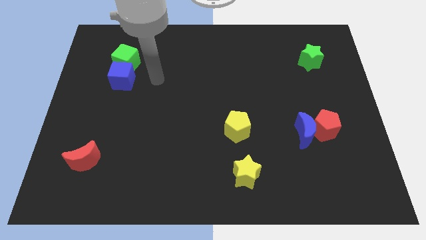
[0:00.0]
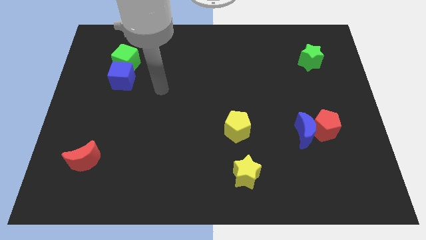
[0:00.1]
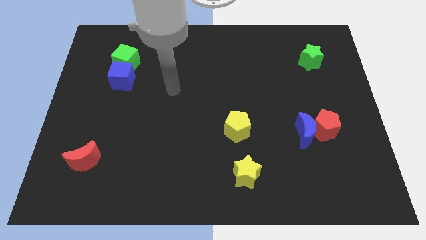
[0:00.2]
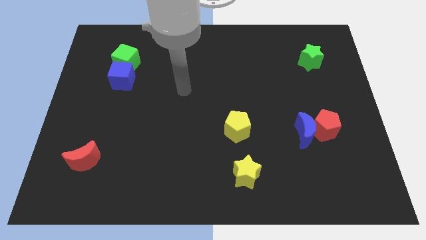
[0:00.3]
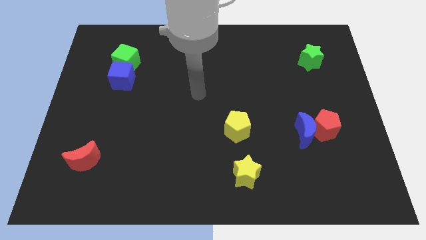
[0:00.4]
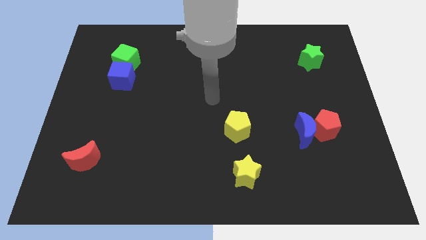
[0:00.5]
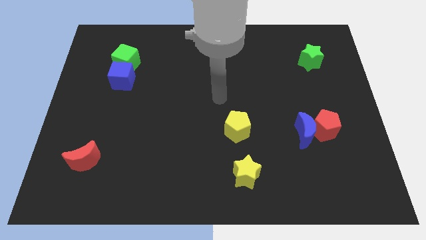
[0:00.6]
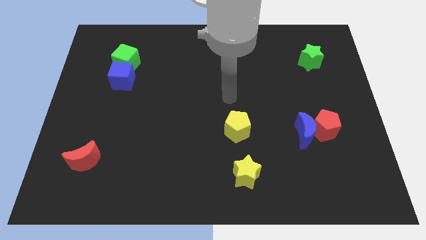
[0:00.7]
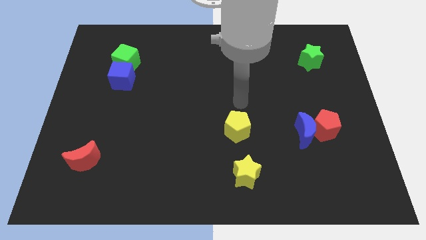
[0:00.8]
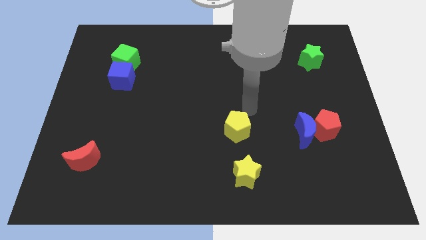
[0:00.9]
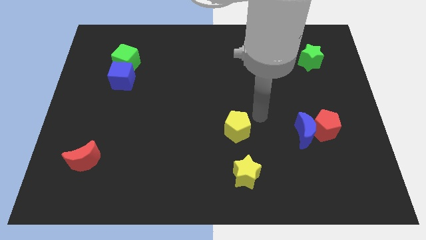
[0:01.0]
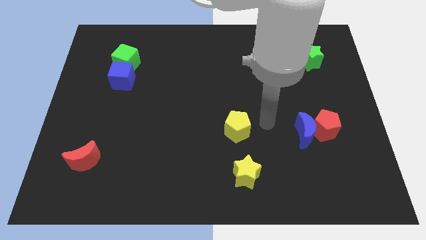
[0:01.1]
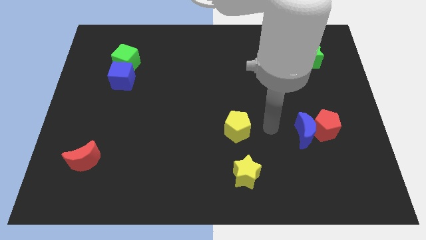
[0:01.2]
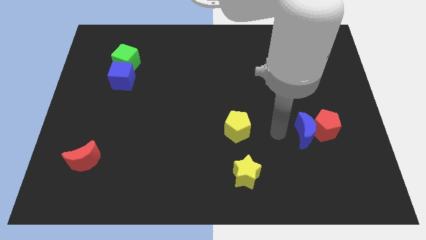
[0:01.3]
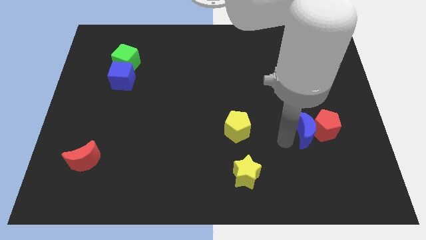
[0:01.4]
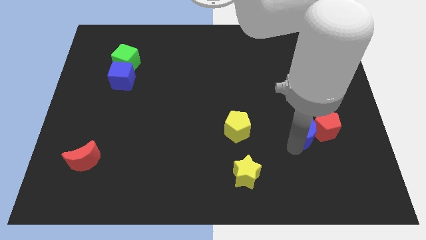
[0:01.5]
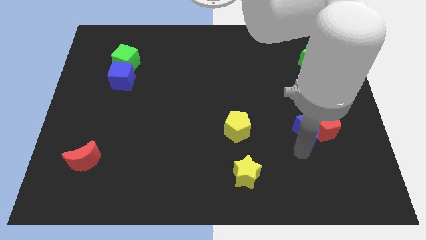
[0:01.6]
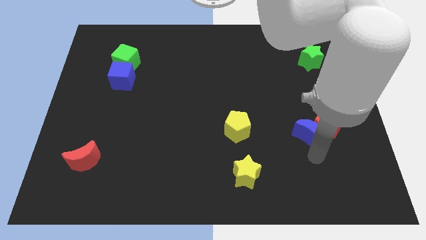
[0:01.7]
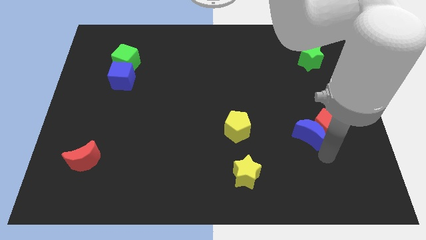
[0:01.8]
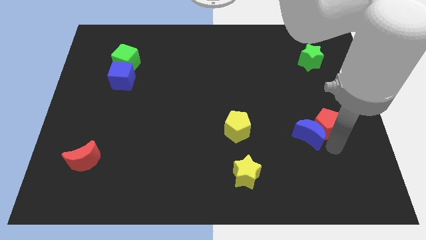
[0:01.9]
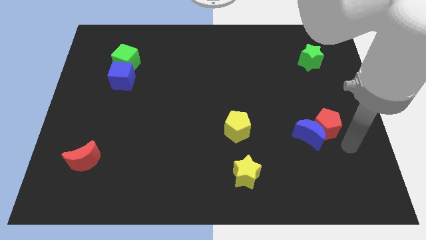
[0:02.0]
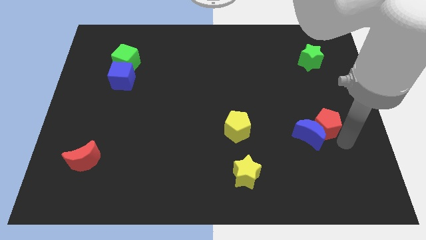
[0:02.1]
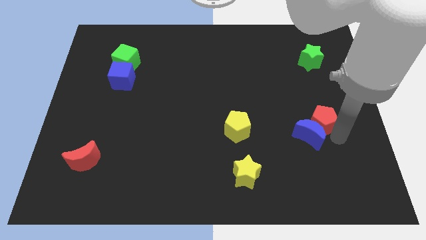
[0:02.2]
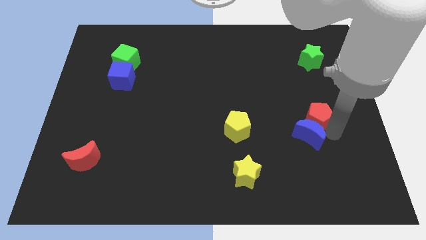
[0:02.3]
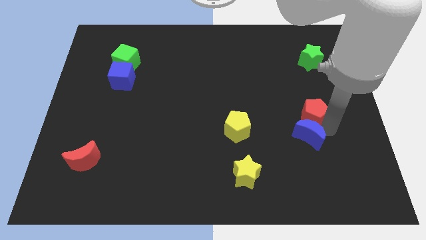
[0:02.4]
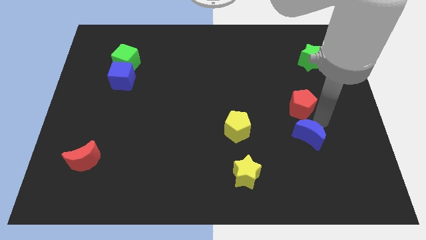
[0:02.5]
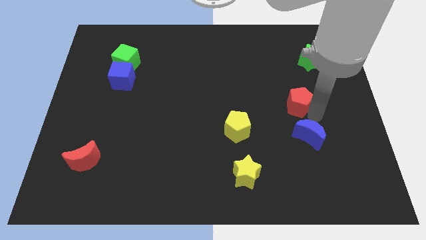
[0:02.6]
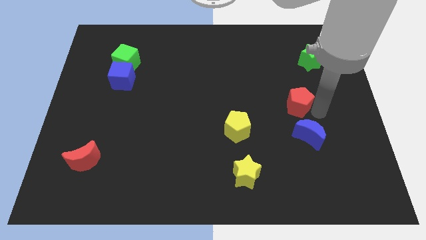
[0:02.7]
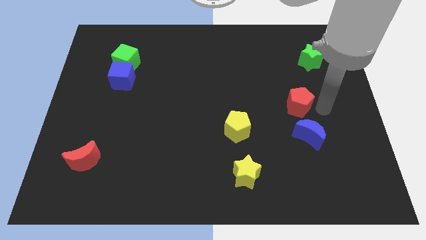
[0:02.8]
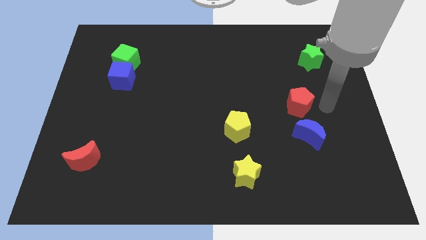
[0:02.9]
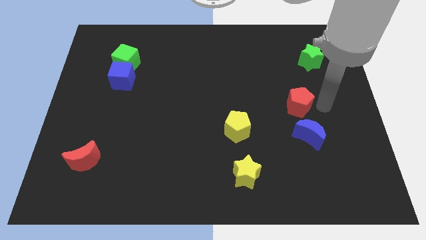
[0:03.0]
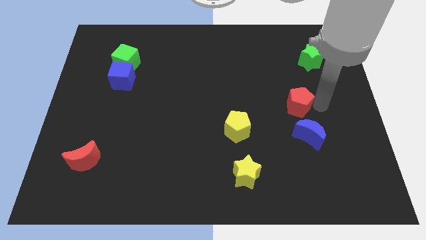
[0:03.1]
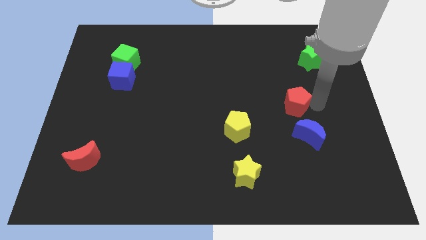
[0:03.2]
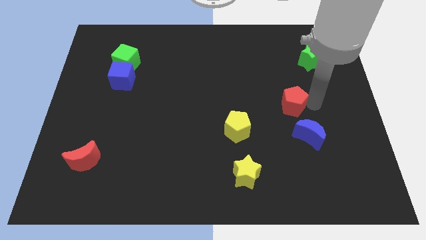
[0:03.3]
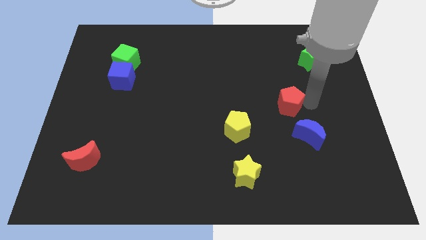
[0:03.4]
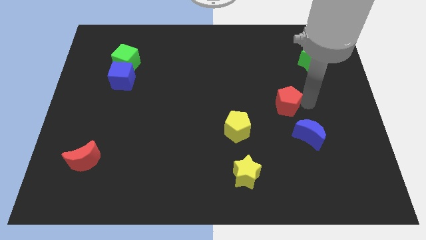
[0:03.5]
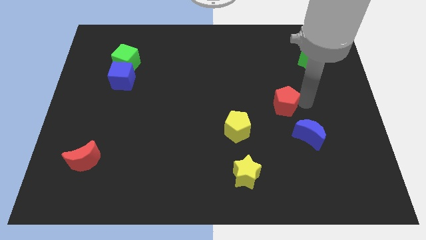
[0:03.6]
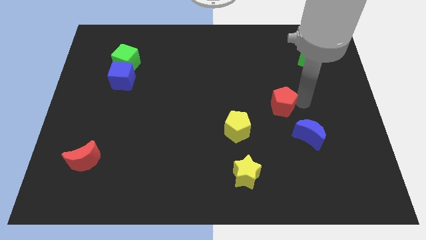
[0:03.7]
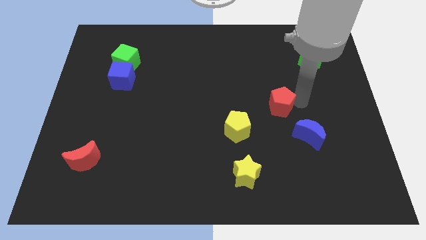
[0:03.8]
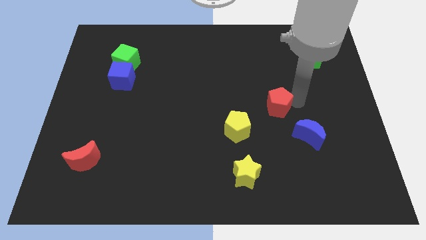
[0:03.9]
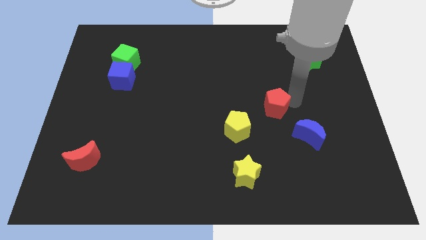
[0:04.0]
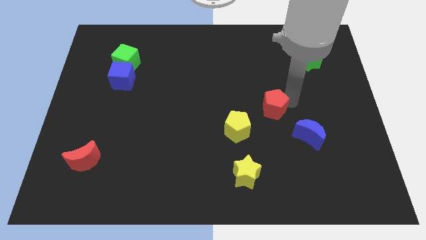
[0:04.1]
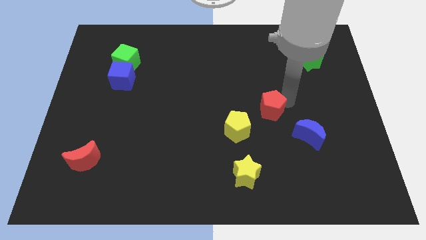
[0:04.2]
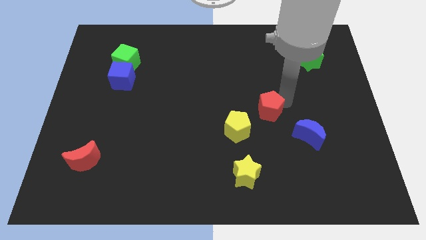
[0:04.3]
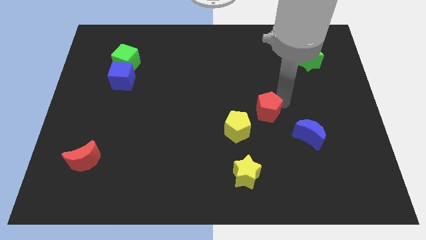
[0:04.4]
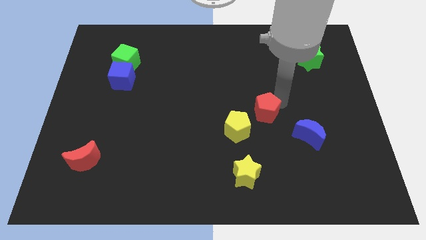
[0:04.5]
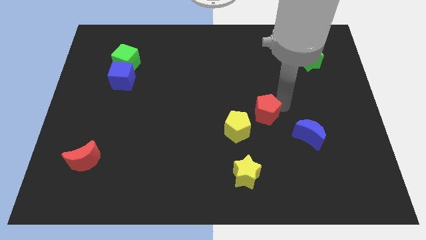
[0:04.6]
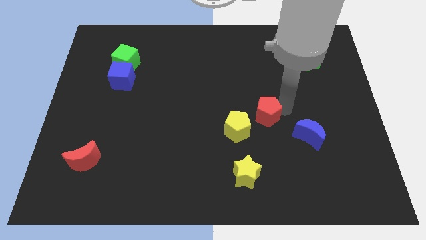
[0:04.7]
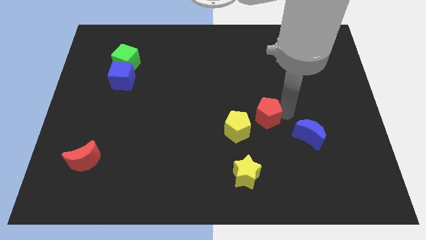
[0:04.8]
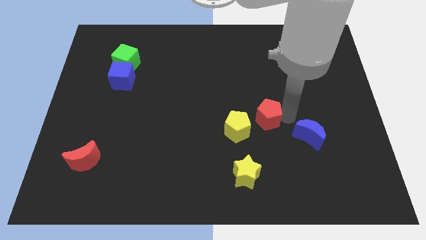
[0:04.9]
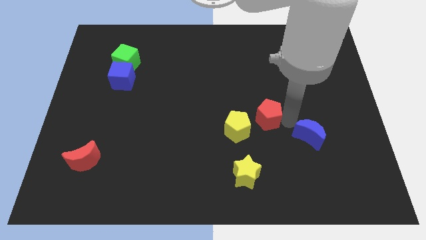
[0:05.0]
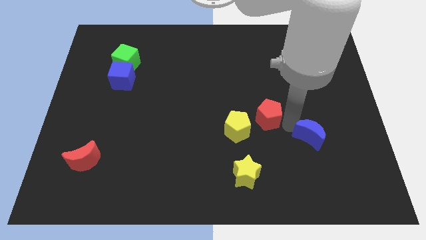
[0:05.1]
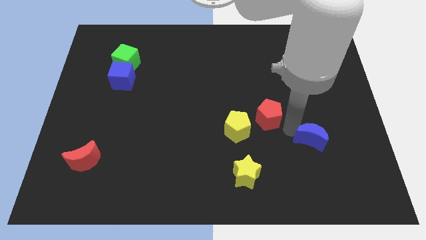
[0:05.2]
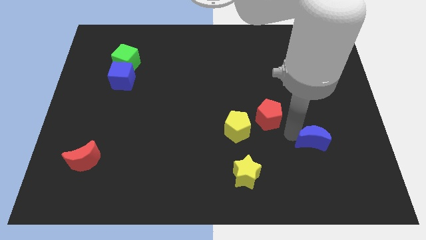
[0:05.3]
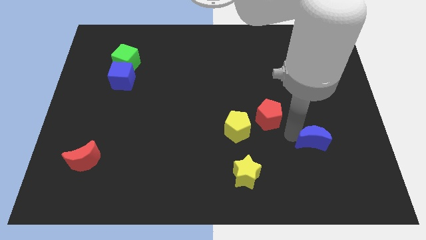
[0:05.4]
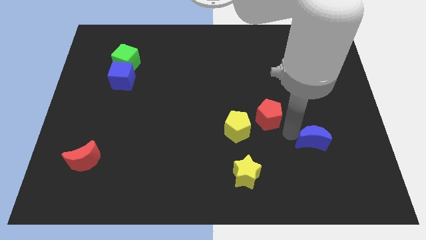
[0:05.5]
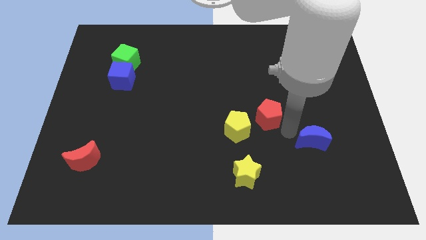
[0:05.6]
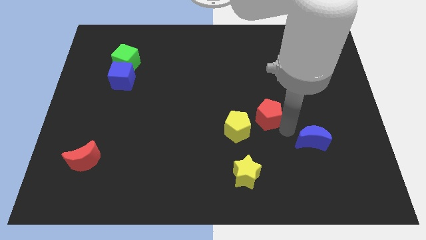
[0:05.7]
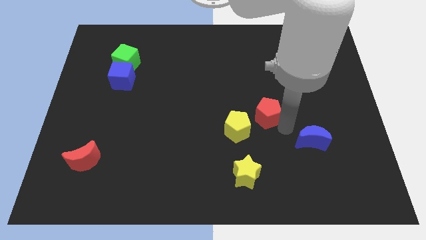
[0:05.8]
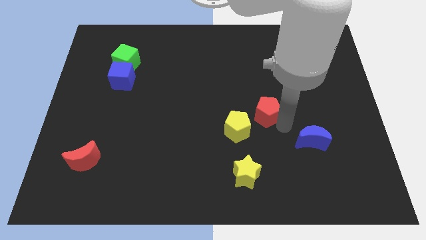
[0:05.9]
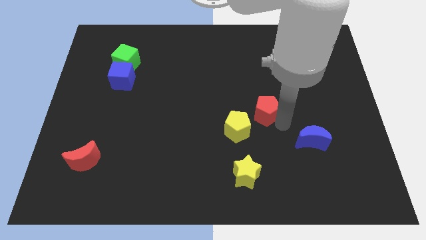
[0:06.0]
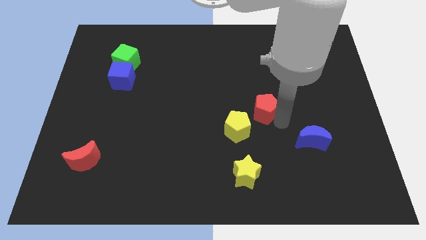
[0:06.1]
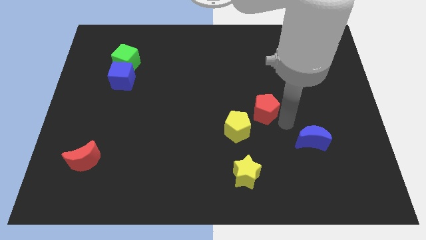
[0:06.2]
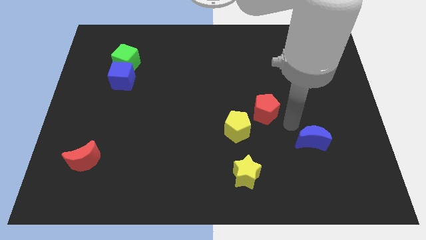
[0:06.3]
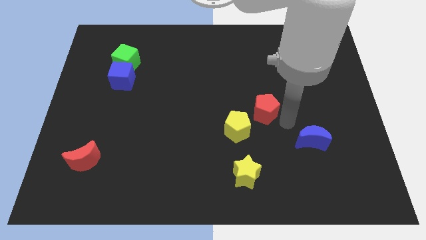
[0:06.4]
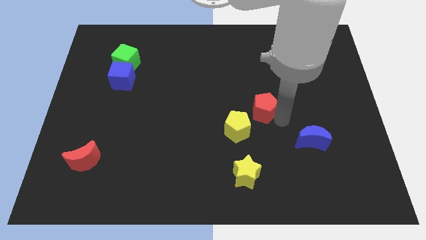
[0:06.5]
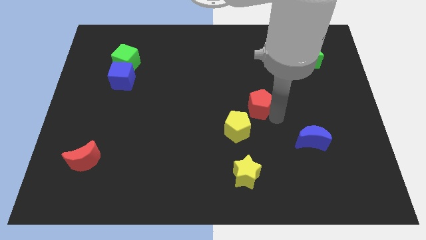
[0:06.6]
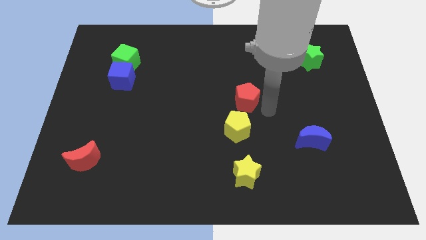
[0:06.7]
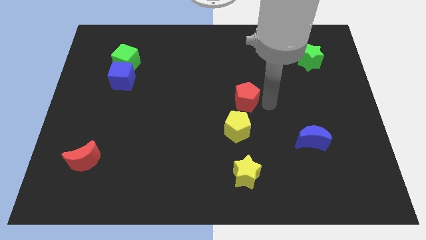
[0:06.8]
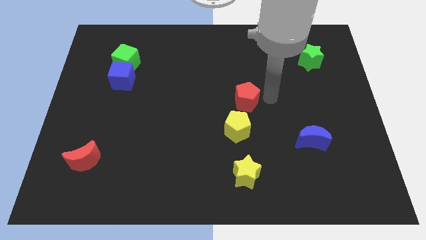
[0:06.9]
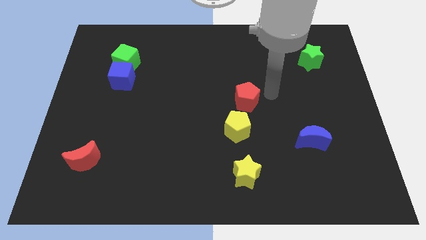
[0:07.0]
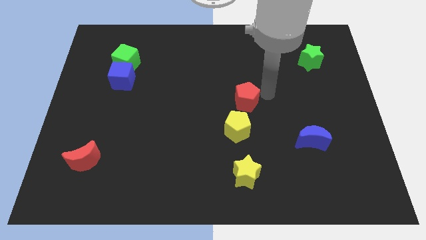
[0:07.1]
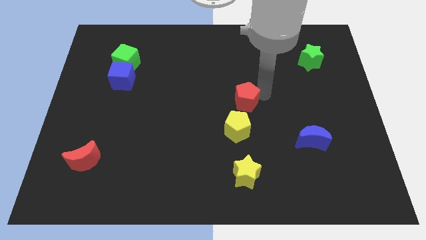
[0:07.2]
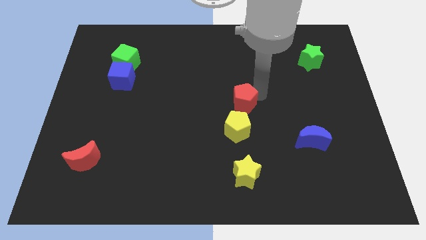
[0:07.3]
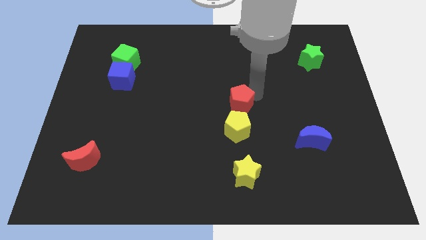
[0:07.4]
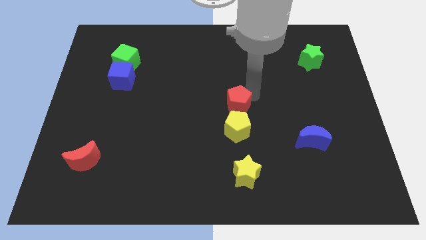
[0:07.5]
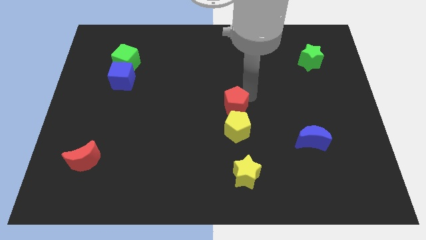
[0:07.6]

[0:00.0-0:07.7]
slide the red pentagon diagonally up and to the left of the yellow pentagon

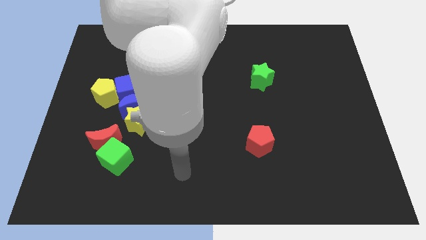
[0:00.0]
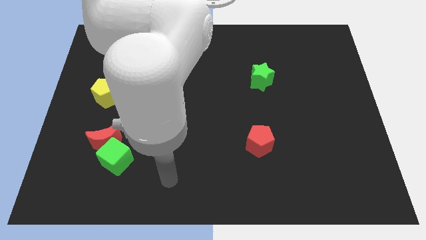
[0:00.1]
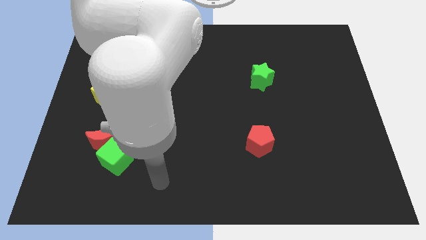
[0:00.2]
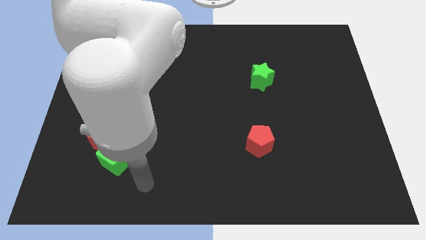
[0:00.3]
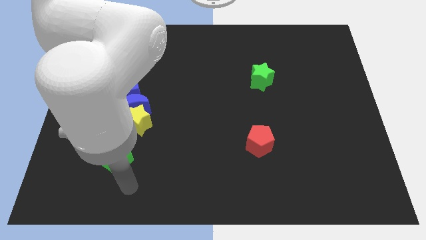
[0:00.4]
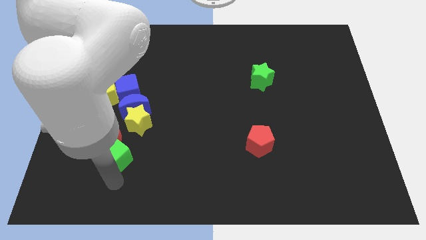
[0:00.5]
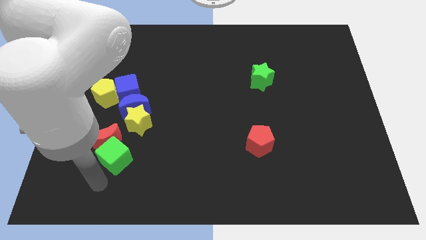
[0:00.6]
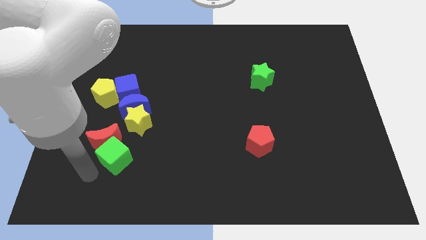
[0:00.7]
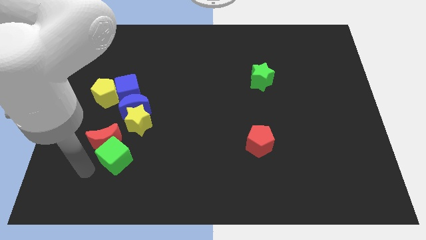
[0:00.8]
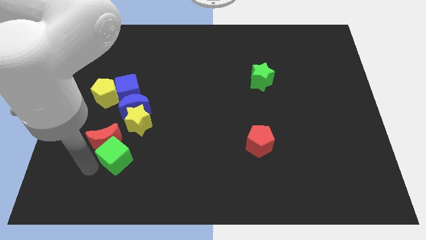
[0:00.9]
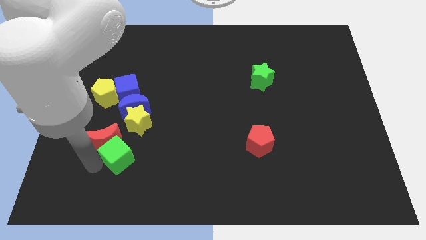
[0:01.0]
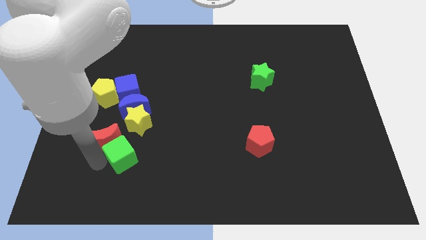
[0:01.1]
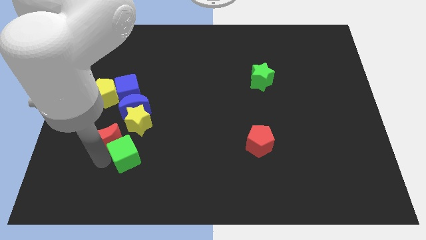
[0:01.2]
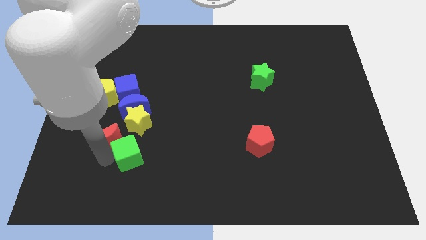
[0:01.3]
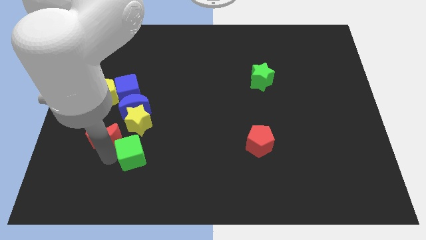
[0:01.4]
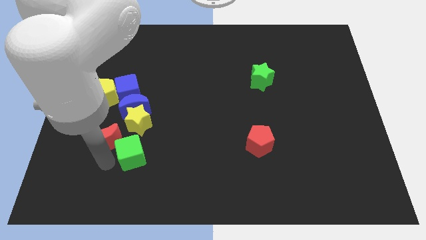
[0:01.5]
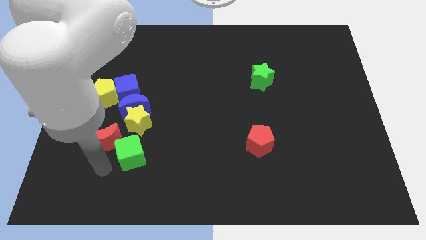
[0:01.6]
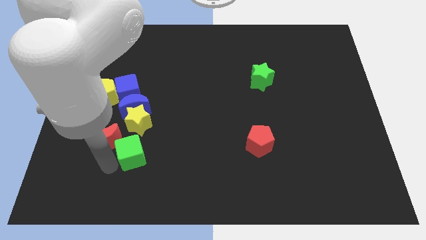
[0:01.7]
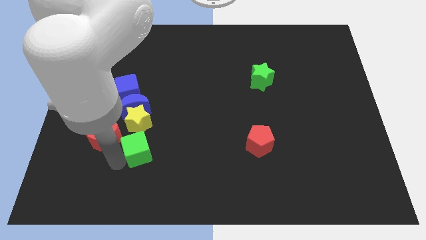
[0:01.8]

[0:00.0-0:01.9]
slide the green cube to the bottom right side of the yellow star
